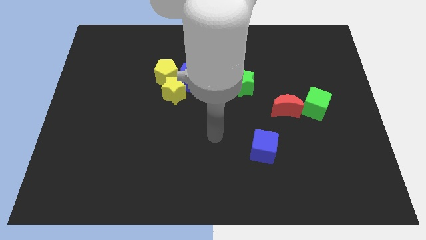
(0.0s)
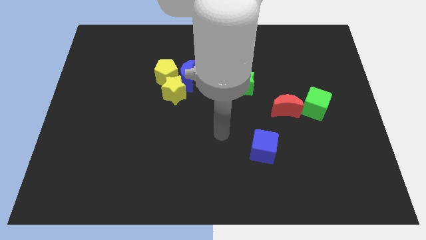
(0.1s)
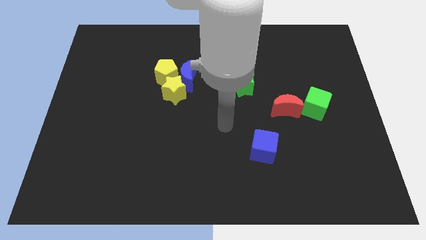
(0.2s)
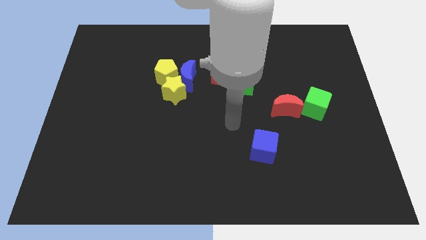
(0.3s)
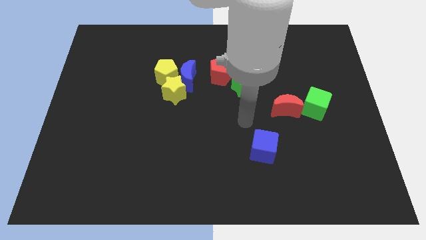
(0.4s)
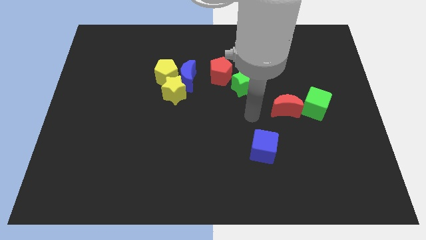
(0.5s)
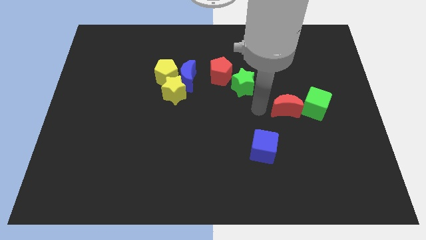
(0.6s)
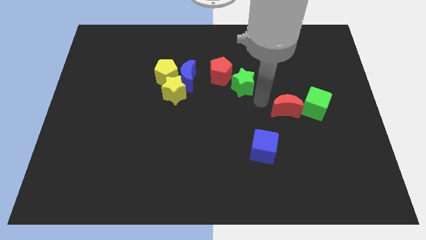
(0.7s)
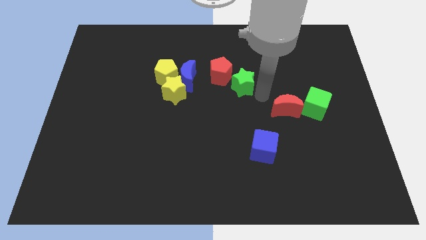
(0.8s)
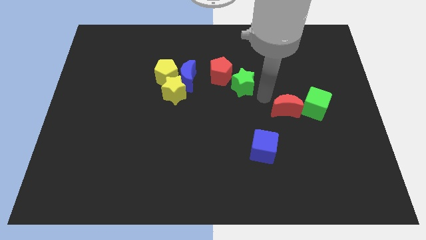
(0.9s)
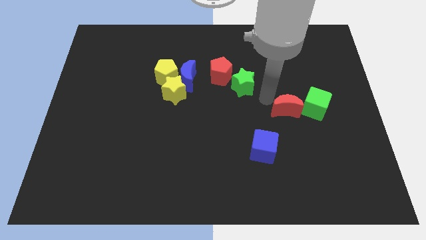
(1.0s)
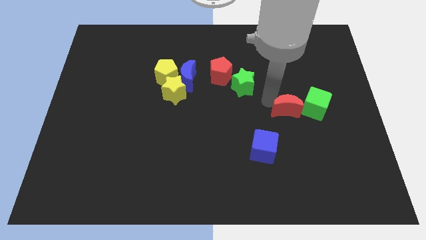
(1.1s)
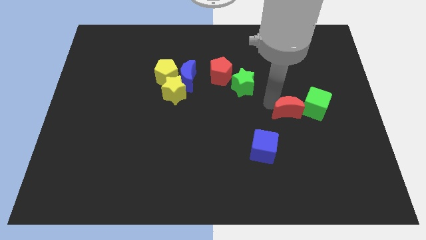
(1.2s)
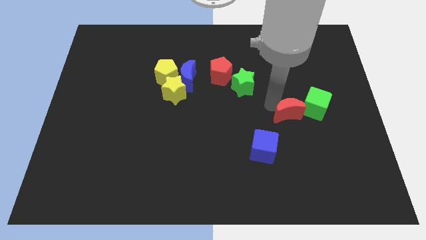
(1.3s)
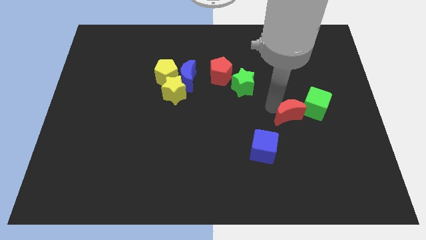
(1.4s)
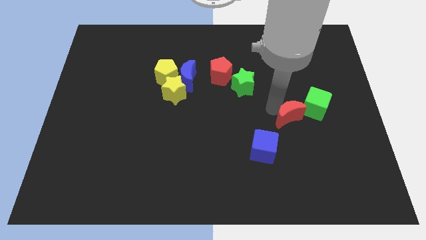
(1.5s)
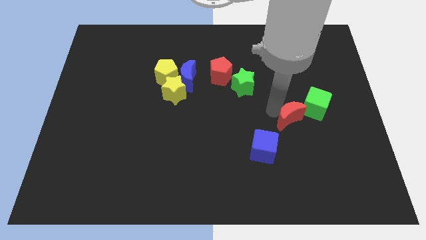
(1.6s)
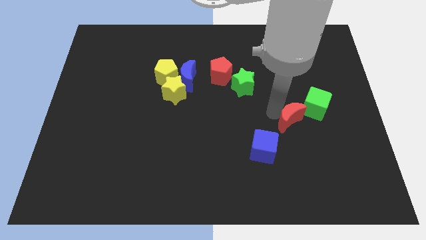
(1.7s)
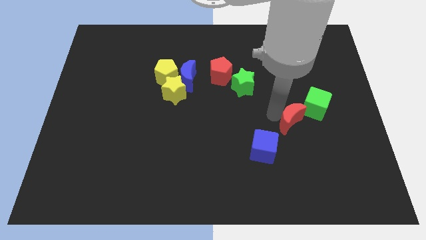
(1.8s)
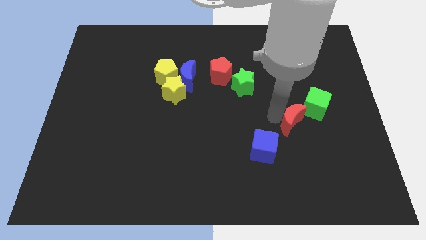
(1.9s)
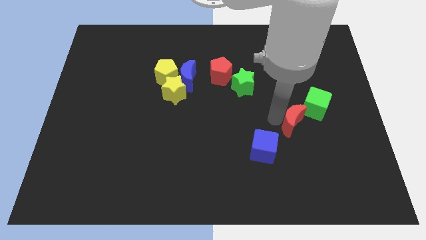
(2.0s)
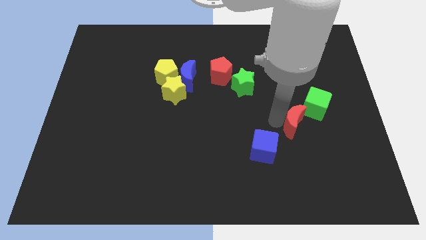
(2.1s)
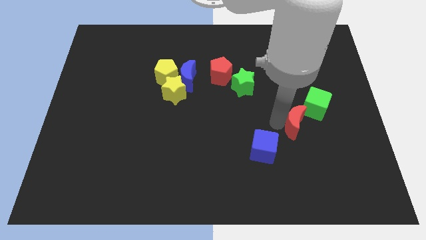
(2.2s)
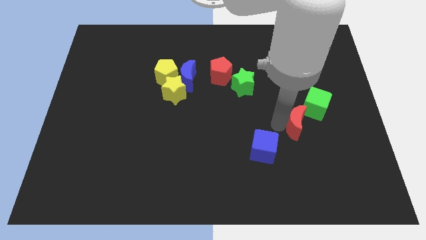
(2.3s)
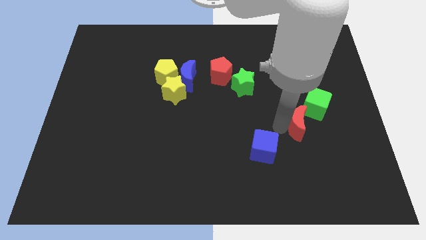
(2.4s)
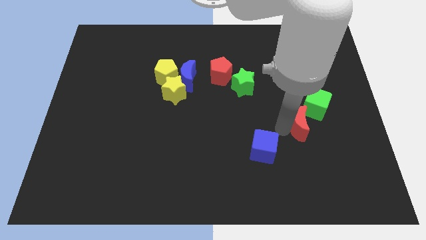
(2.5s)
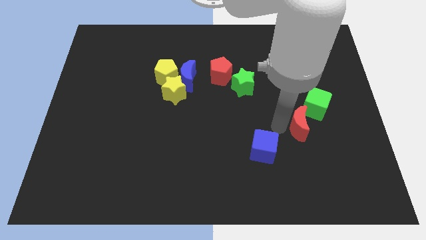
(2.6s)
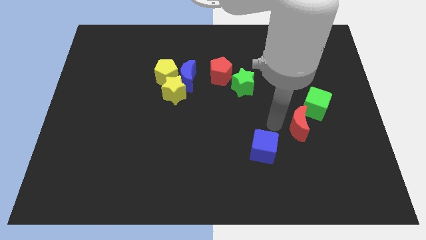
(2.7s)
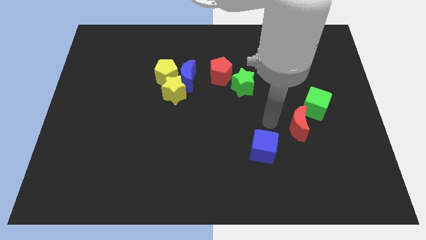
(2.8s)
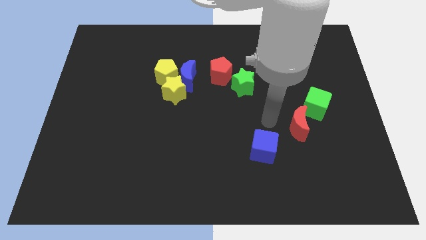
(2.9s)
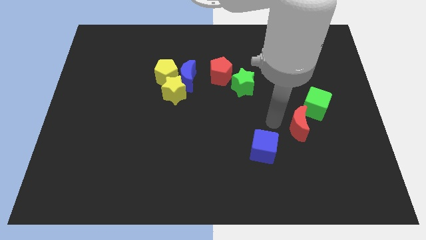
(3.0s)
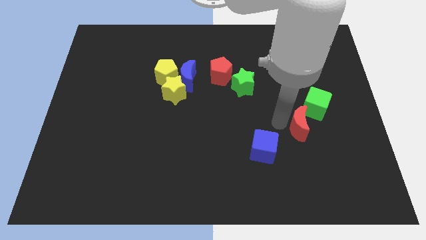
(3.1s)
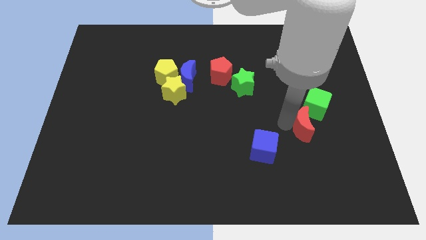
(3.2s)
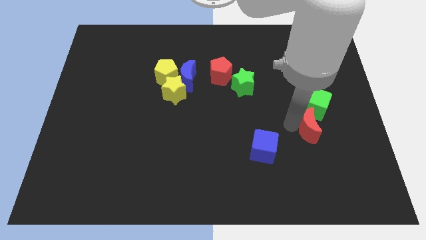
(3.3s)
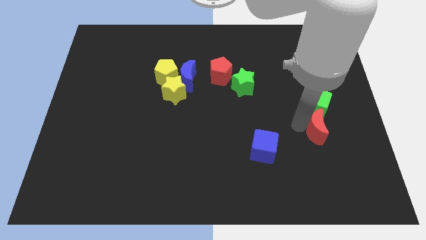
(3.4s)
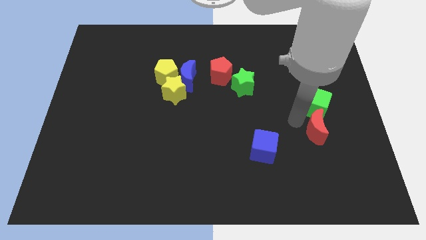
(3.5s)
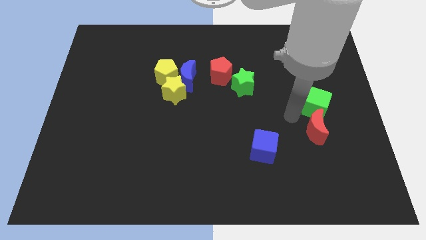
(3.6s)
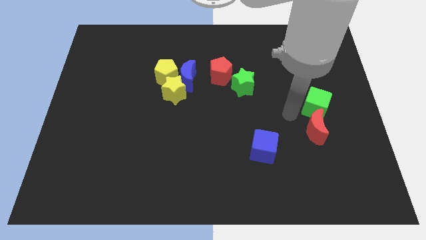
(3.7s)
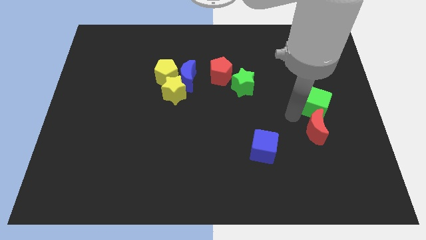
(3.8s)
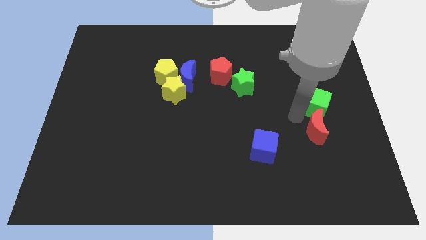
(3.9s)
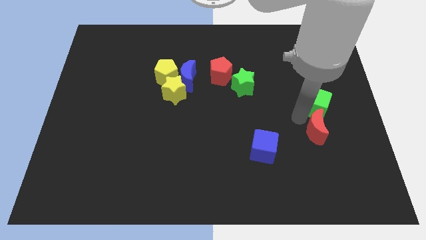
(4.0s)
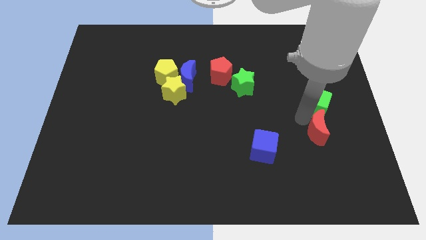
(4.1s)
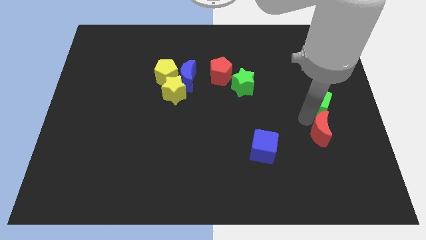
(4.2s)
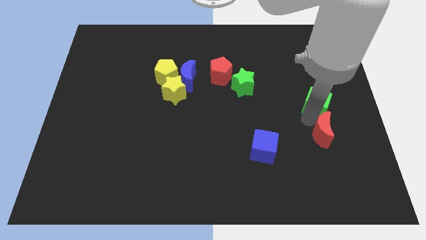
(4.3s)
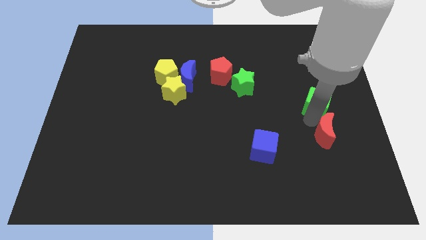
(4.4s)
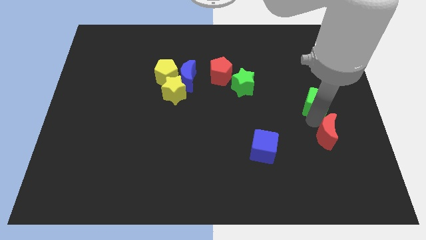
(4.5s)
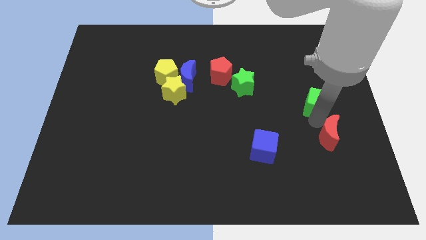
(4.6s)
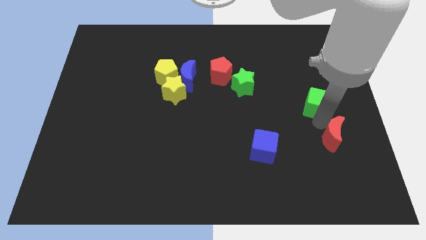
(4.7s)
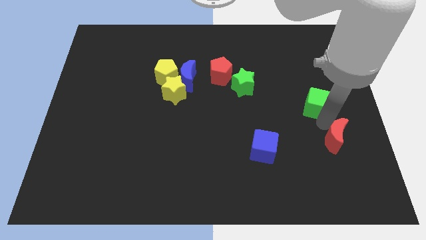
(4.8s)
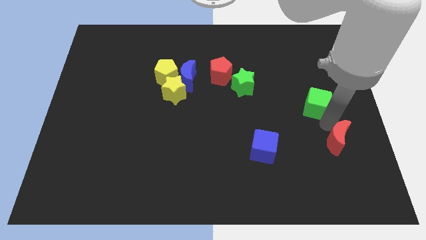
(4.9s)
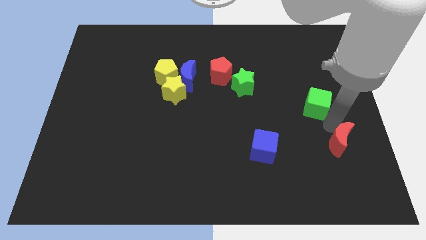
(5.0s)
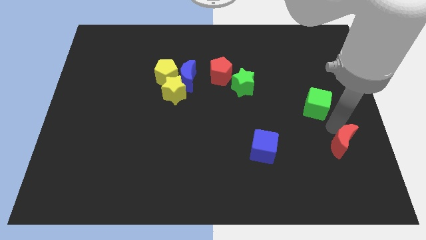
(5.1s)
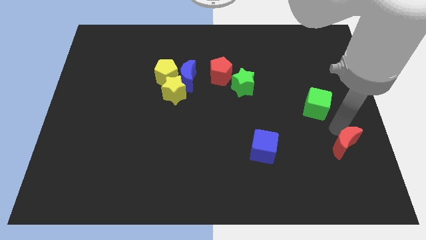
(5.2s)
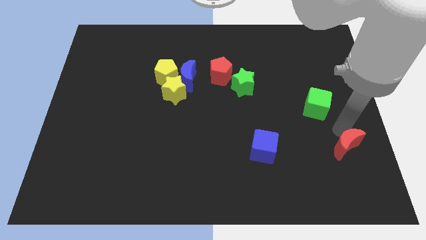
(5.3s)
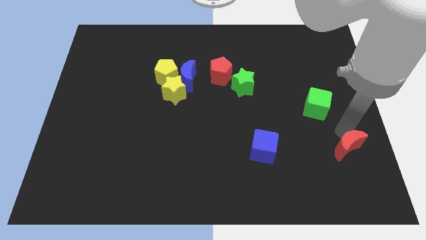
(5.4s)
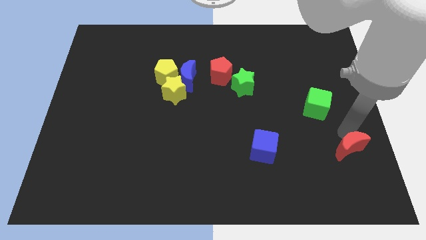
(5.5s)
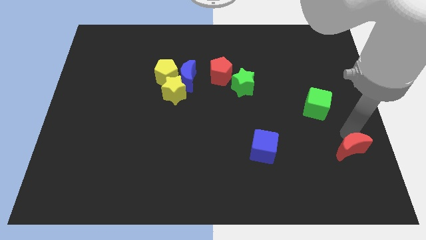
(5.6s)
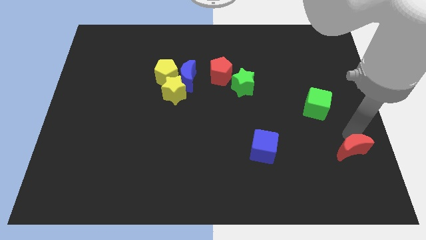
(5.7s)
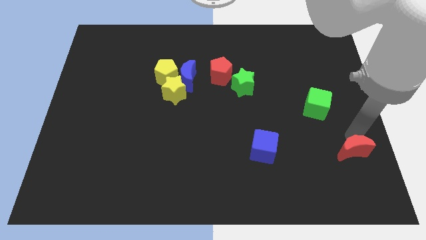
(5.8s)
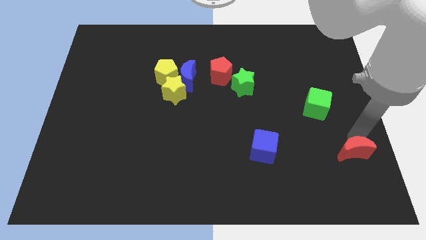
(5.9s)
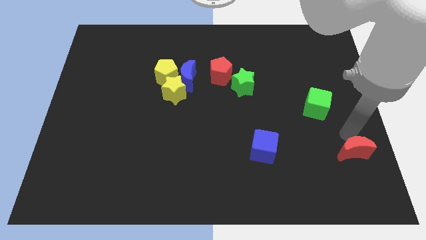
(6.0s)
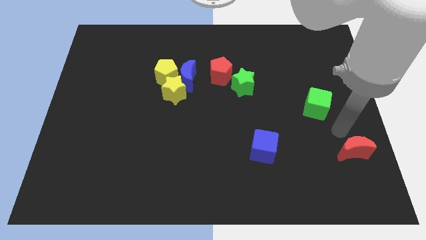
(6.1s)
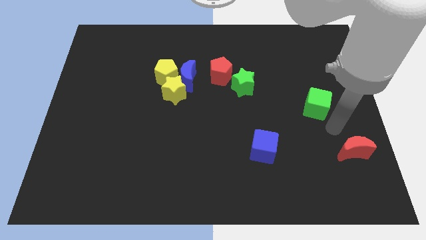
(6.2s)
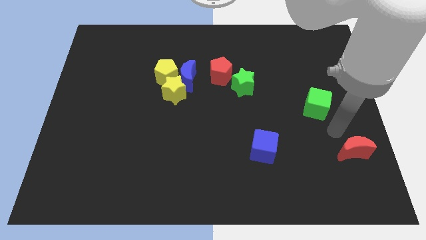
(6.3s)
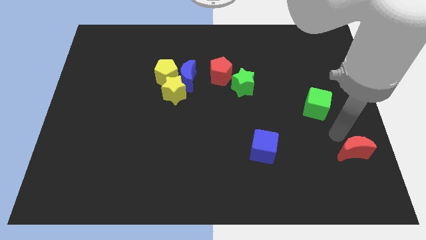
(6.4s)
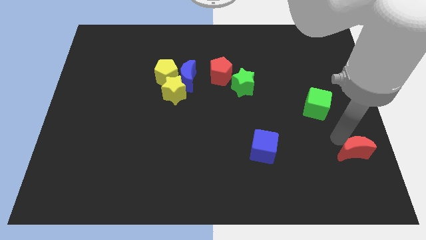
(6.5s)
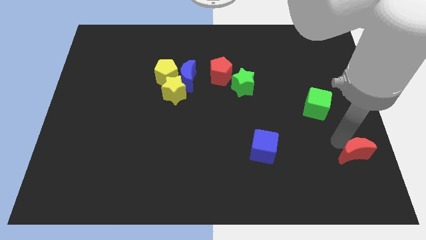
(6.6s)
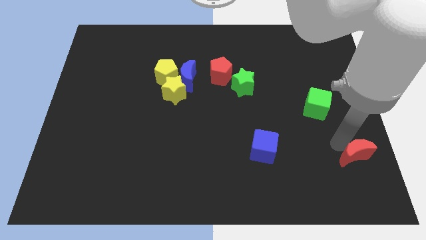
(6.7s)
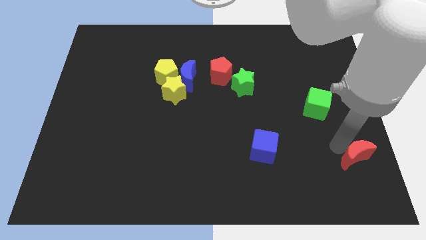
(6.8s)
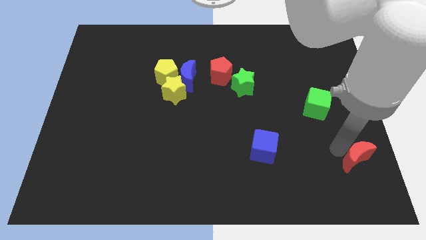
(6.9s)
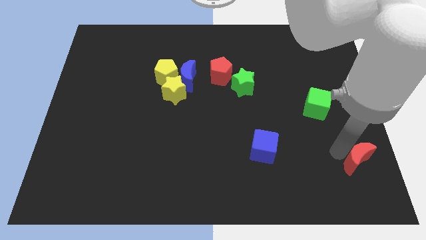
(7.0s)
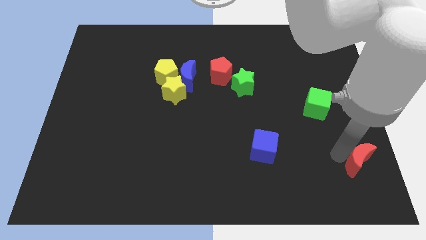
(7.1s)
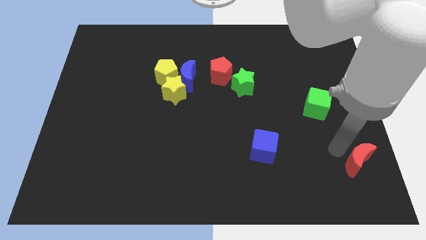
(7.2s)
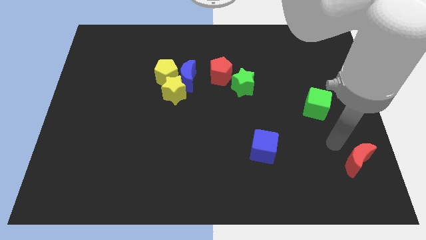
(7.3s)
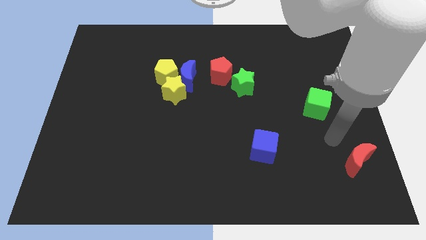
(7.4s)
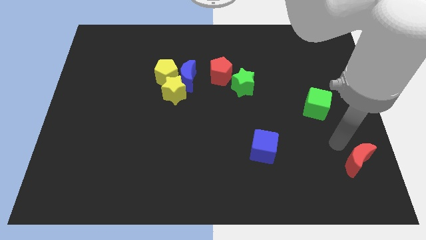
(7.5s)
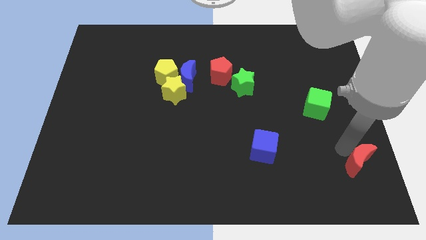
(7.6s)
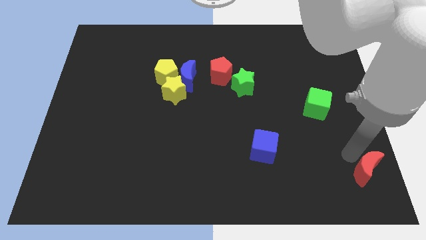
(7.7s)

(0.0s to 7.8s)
push the red moon to the lower right corner
